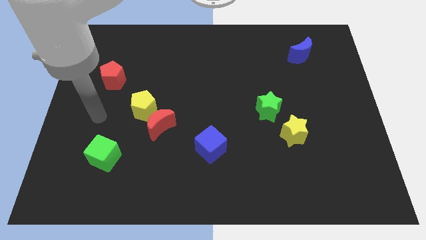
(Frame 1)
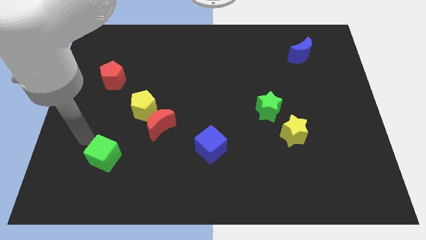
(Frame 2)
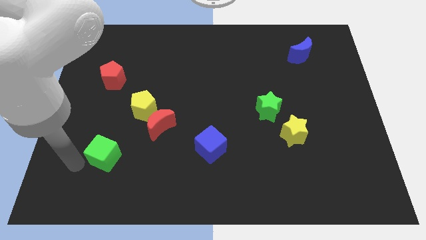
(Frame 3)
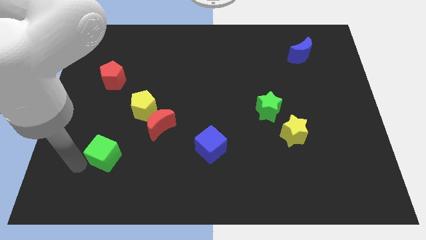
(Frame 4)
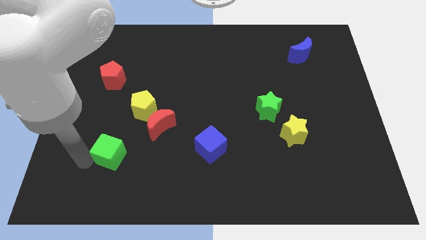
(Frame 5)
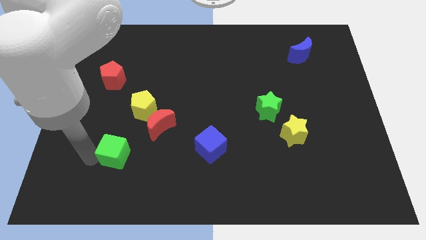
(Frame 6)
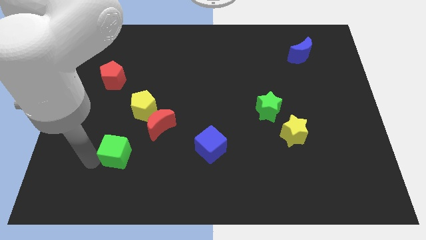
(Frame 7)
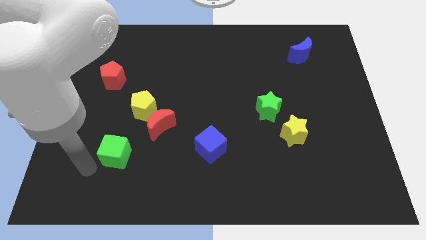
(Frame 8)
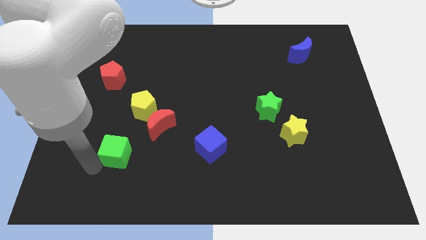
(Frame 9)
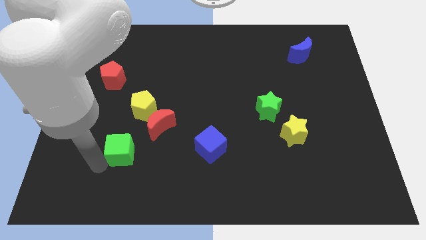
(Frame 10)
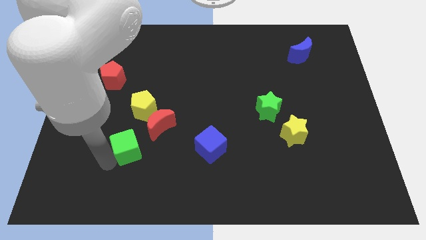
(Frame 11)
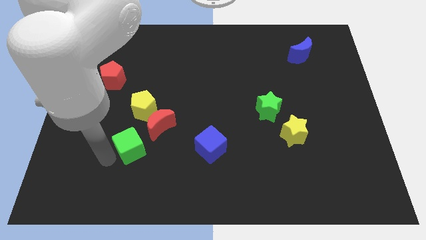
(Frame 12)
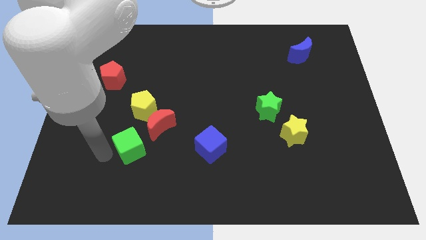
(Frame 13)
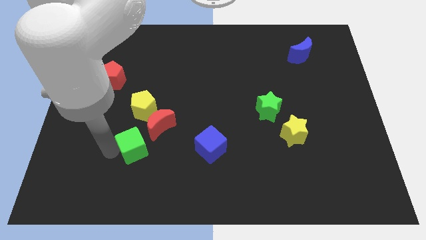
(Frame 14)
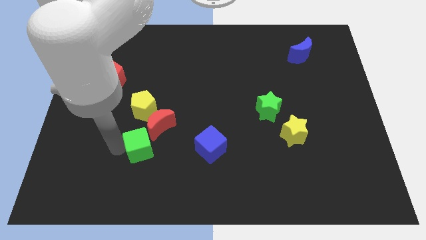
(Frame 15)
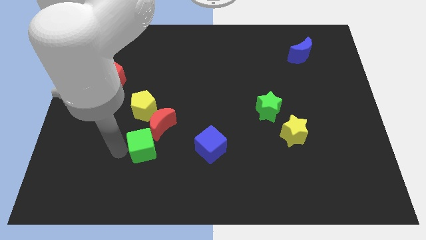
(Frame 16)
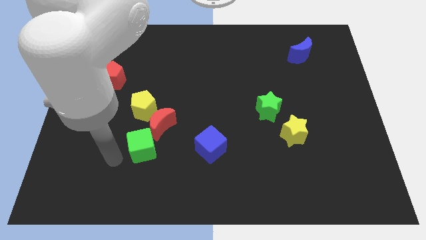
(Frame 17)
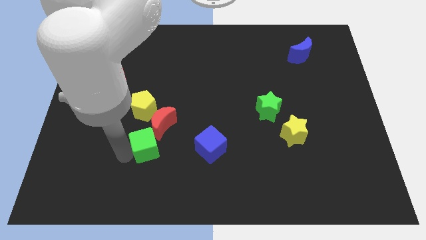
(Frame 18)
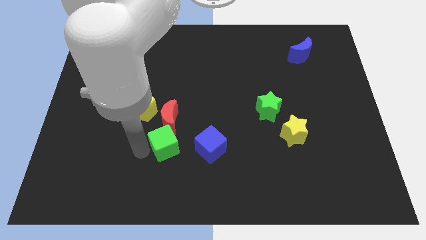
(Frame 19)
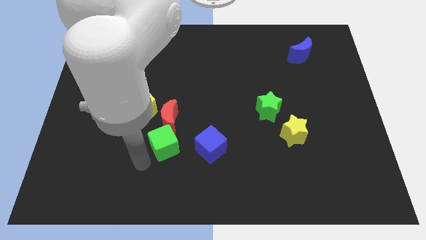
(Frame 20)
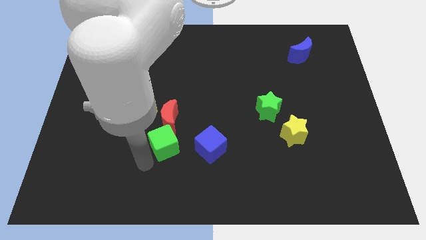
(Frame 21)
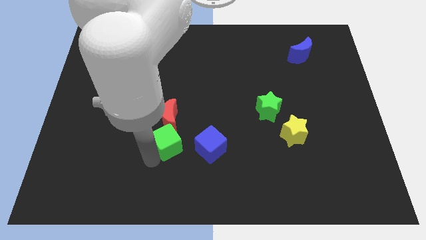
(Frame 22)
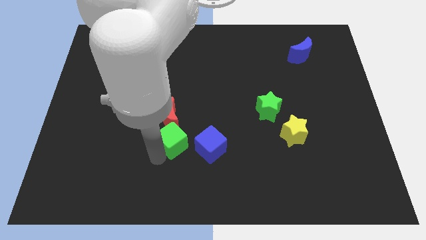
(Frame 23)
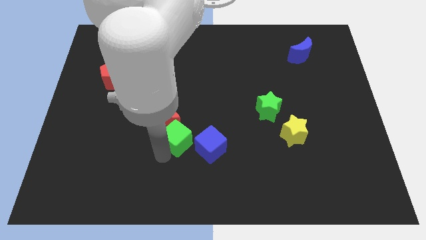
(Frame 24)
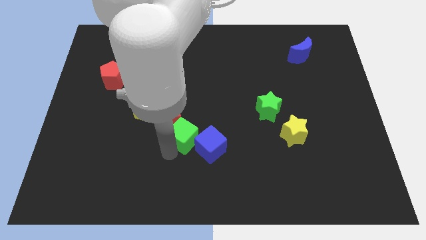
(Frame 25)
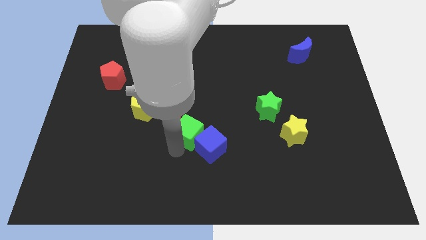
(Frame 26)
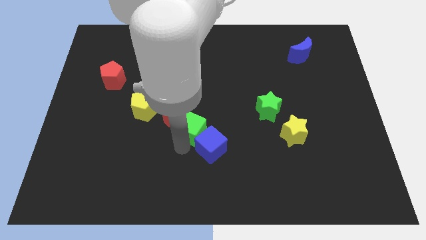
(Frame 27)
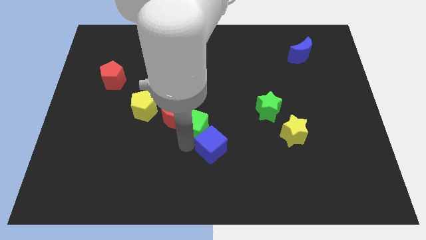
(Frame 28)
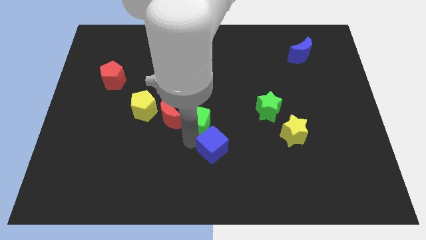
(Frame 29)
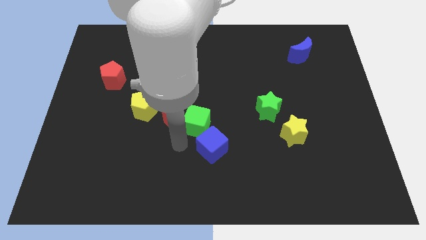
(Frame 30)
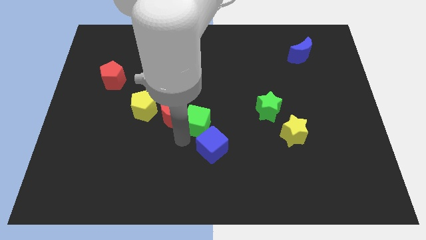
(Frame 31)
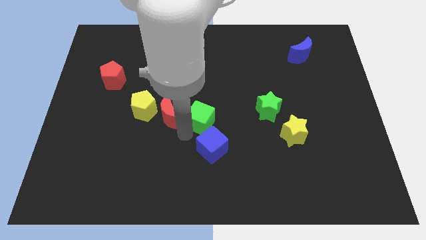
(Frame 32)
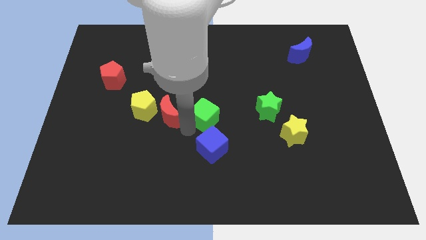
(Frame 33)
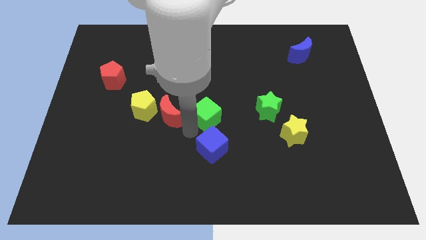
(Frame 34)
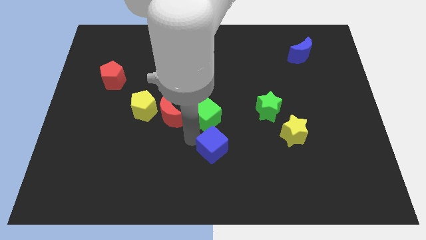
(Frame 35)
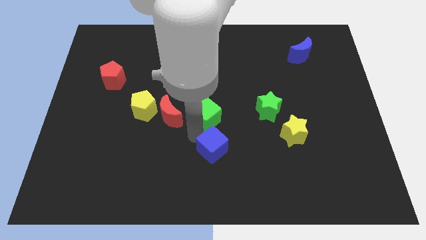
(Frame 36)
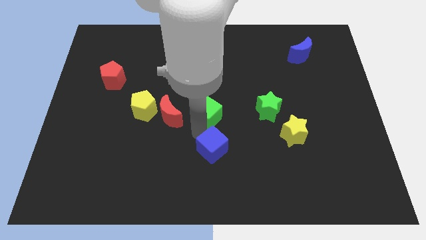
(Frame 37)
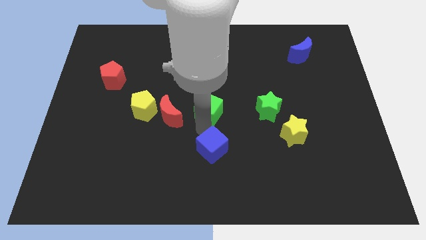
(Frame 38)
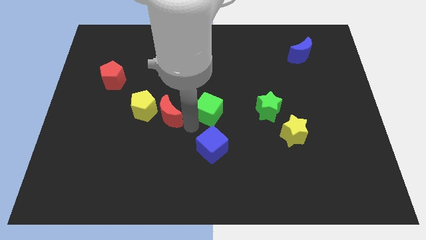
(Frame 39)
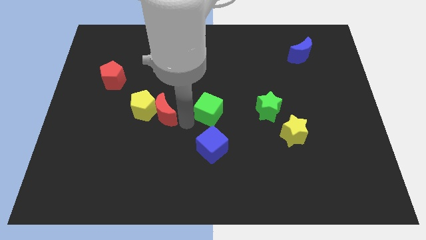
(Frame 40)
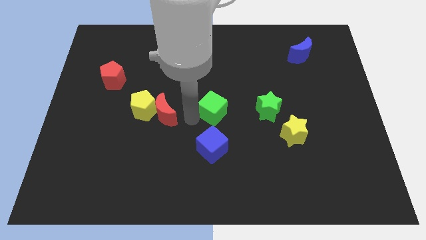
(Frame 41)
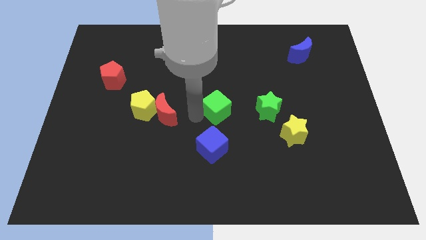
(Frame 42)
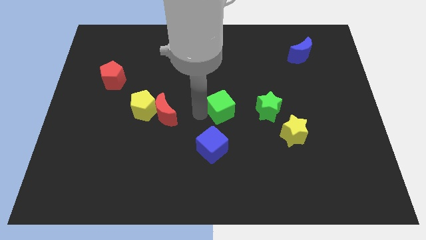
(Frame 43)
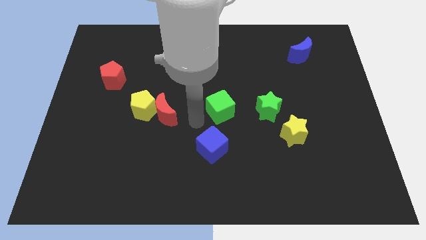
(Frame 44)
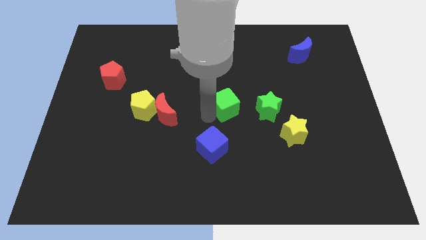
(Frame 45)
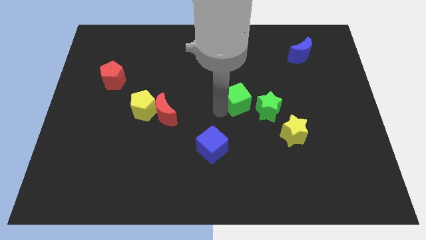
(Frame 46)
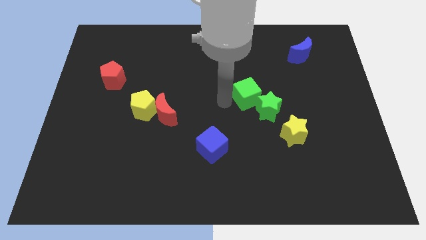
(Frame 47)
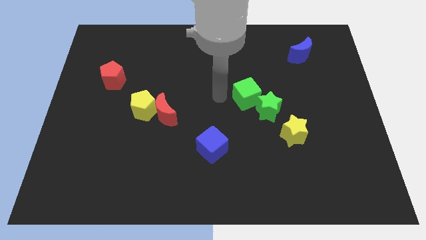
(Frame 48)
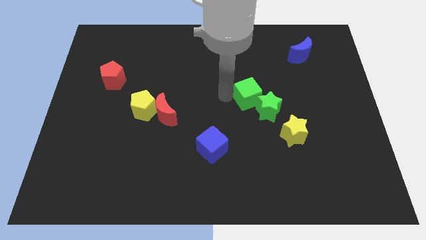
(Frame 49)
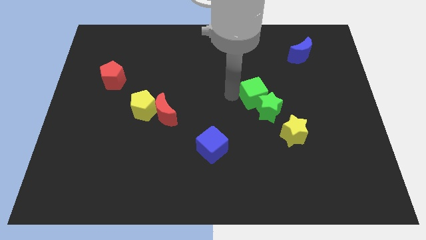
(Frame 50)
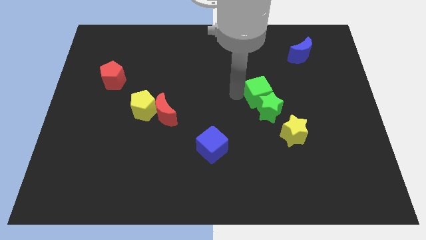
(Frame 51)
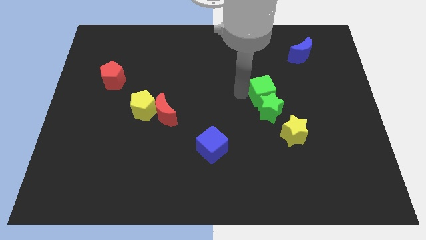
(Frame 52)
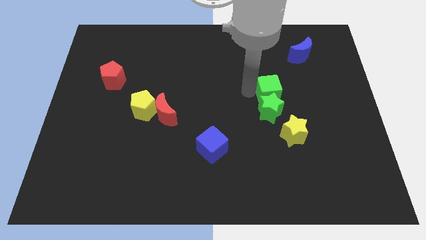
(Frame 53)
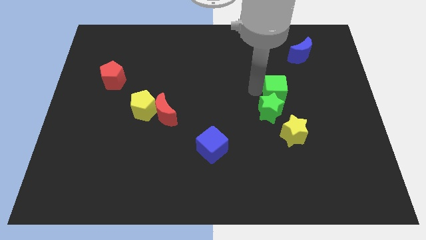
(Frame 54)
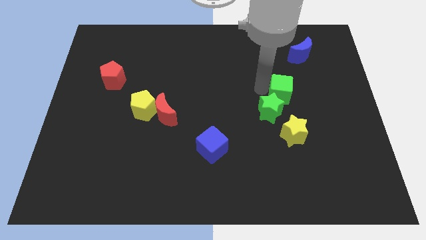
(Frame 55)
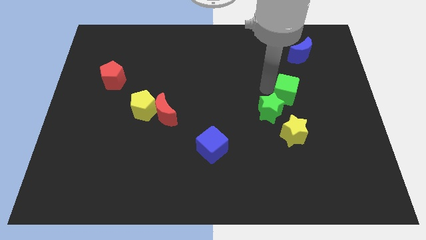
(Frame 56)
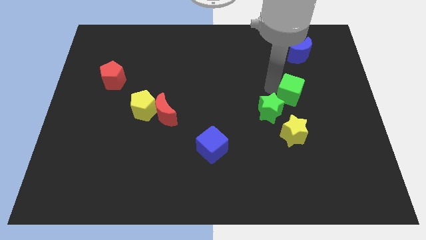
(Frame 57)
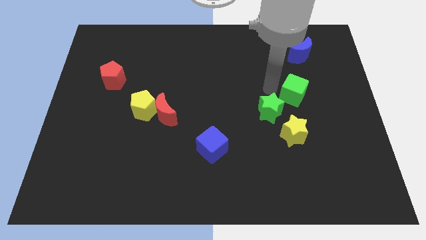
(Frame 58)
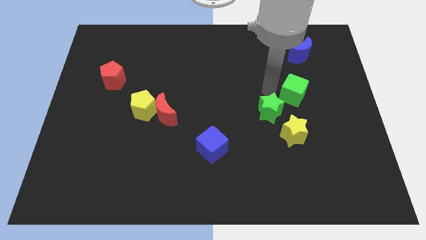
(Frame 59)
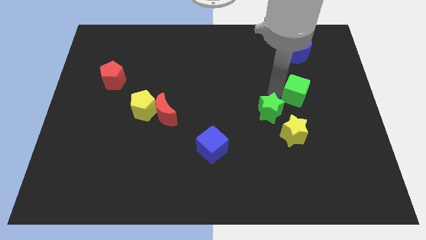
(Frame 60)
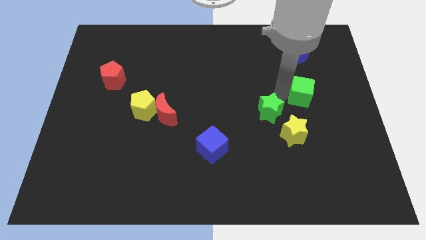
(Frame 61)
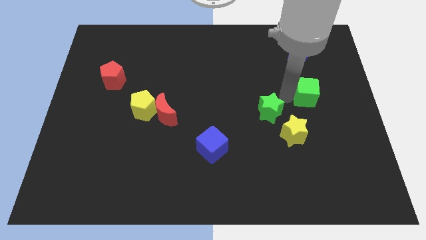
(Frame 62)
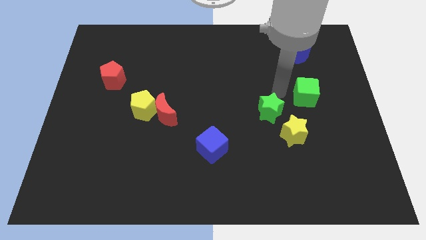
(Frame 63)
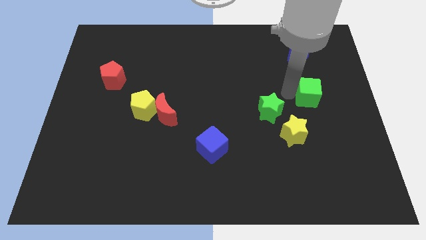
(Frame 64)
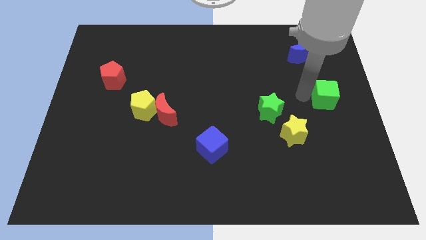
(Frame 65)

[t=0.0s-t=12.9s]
move the green cube to the right side
